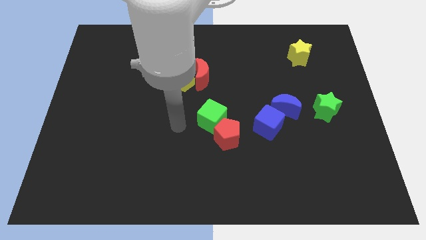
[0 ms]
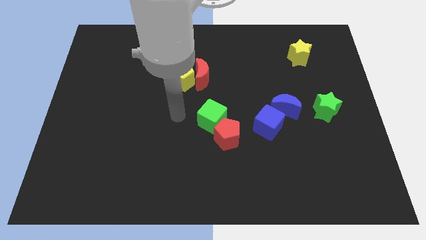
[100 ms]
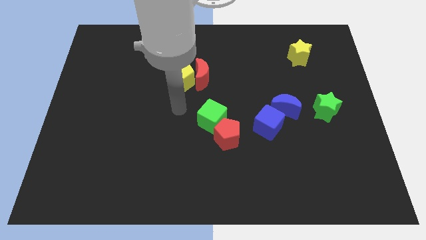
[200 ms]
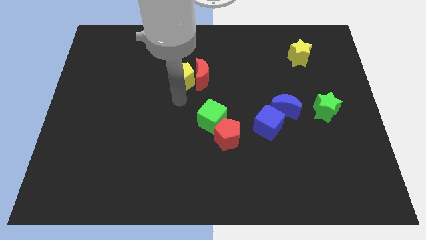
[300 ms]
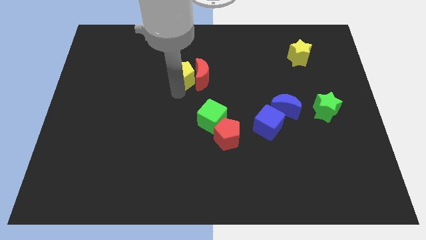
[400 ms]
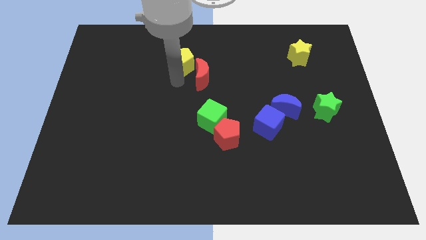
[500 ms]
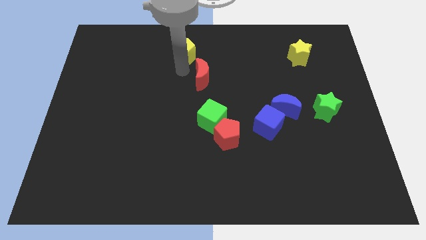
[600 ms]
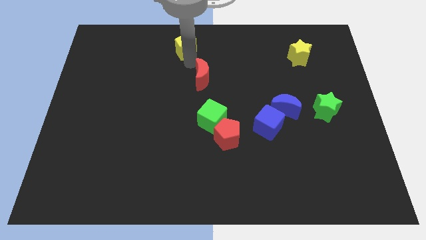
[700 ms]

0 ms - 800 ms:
separate the red moon from the yellow pentagon

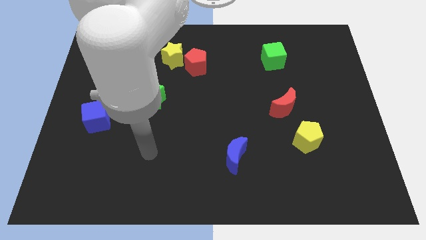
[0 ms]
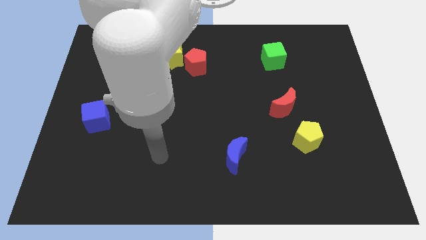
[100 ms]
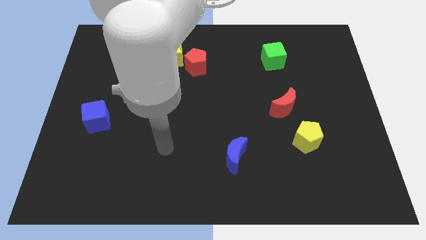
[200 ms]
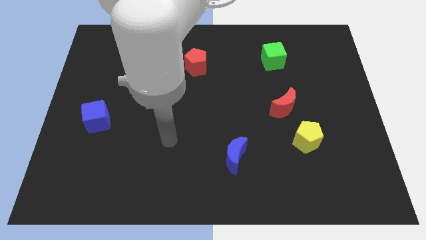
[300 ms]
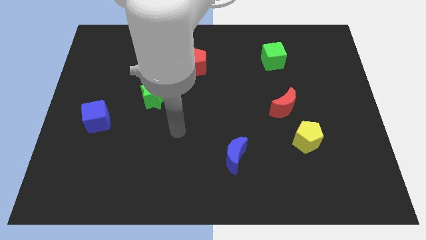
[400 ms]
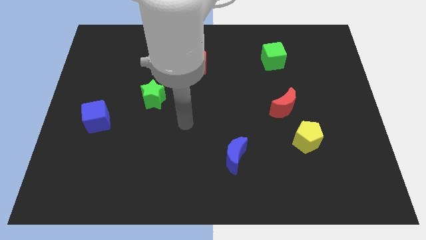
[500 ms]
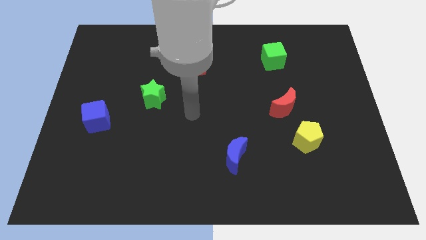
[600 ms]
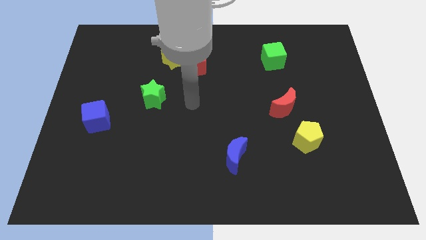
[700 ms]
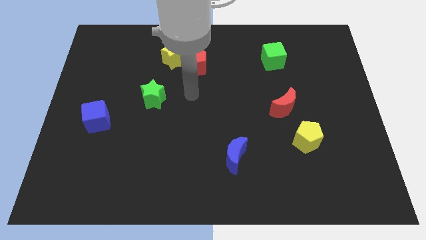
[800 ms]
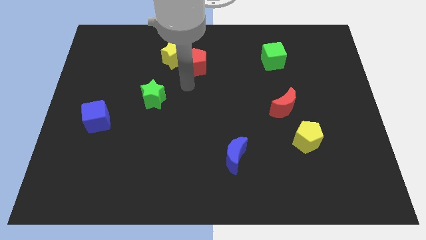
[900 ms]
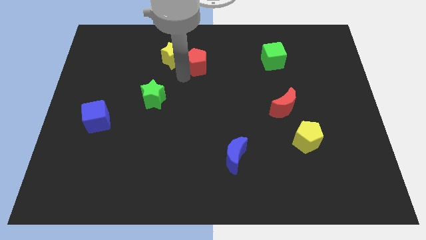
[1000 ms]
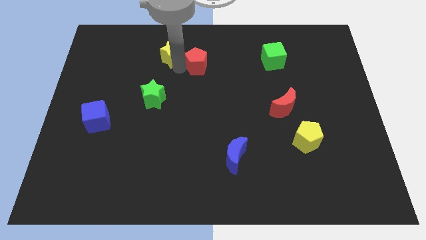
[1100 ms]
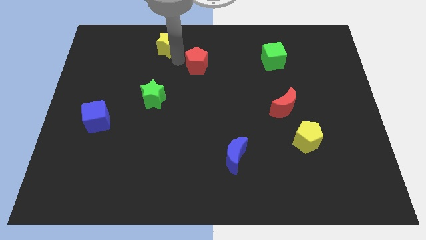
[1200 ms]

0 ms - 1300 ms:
separate the red pentagon from the yellow star

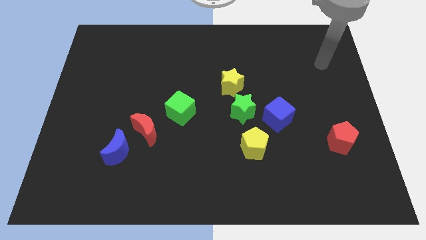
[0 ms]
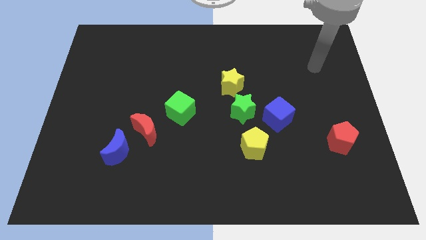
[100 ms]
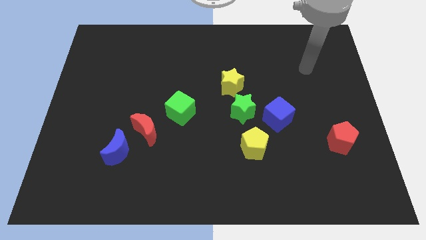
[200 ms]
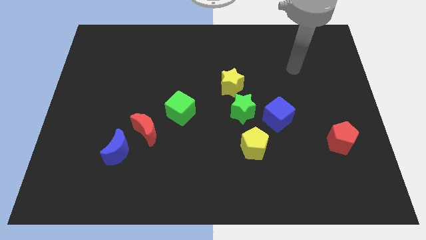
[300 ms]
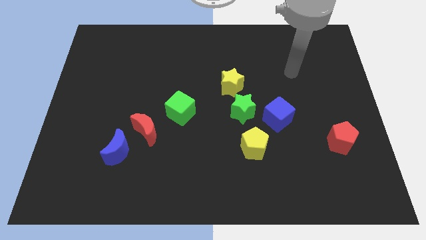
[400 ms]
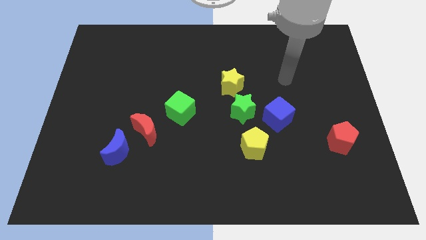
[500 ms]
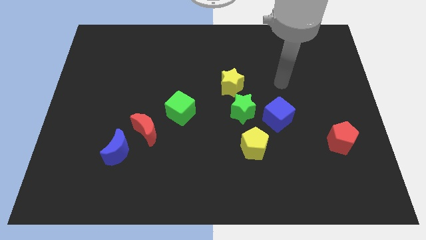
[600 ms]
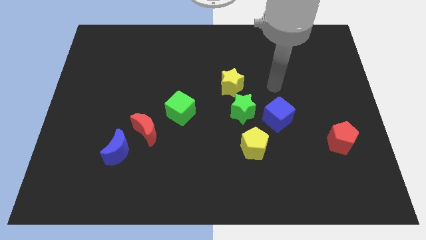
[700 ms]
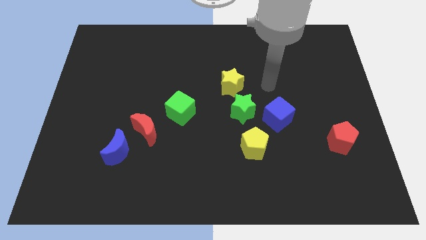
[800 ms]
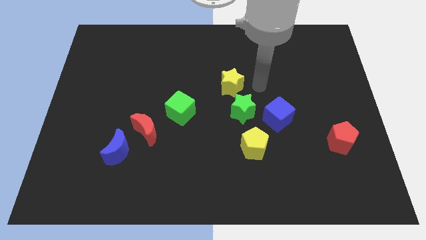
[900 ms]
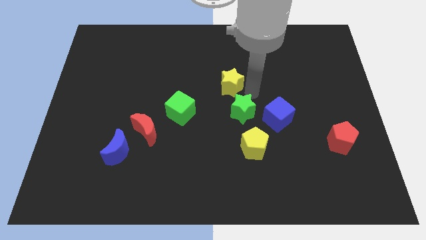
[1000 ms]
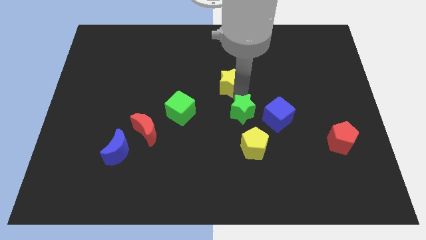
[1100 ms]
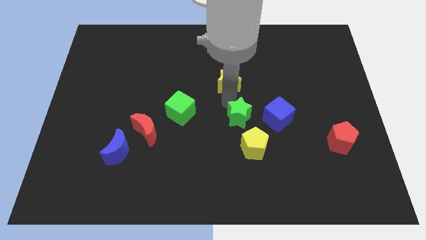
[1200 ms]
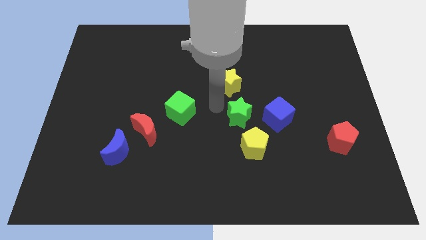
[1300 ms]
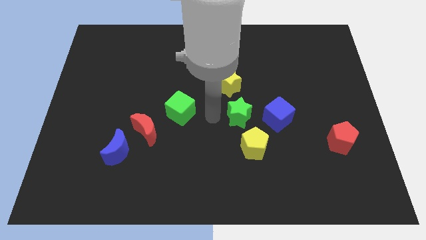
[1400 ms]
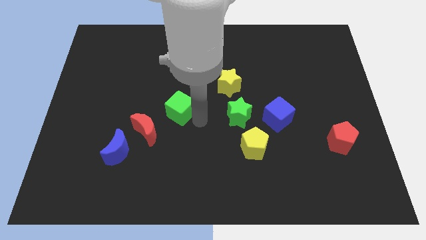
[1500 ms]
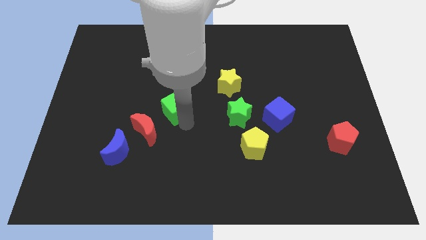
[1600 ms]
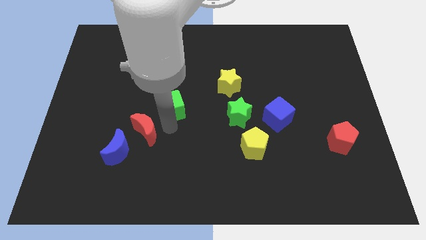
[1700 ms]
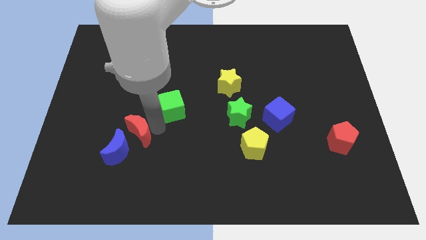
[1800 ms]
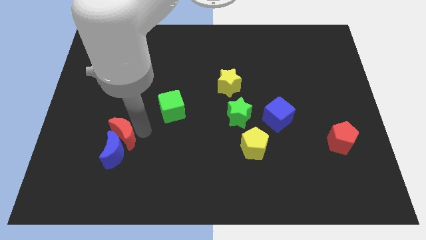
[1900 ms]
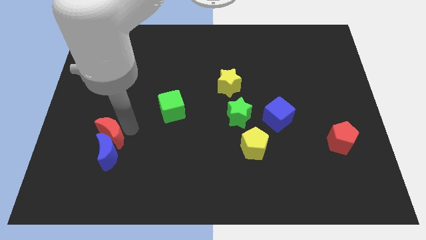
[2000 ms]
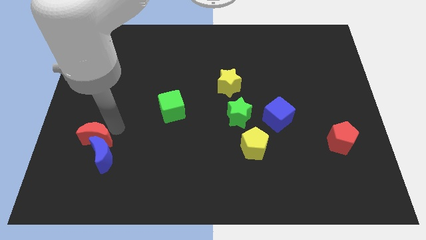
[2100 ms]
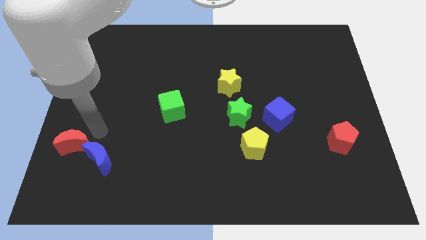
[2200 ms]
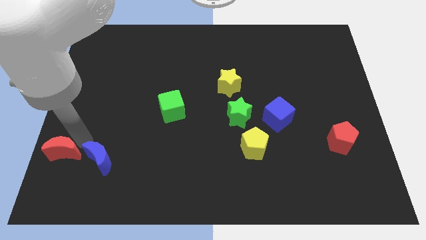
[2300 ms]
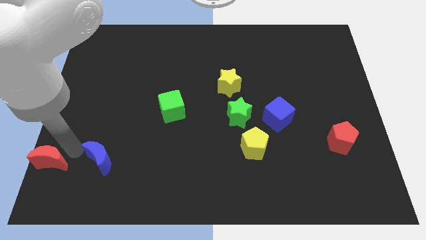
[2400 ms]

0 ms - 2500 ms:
move the blue moon away from the red moon

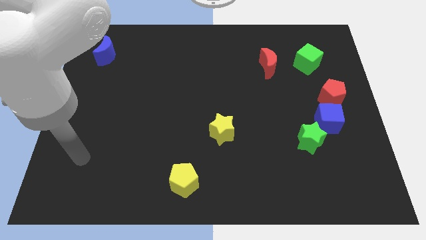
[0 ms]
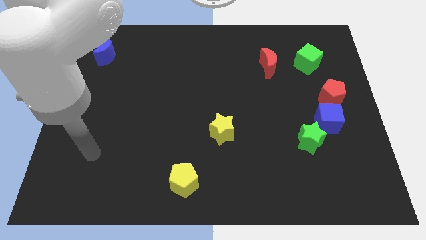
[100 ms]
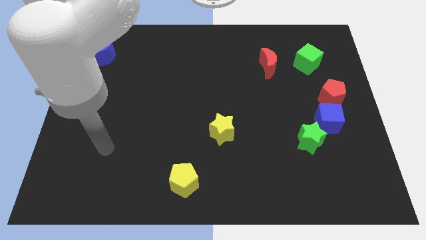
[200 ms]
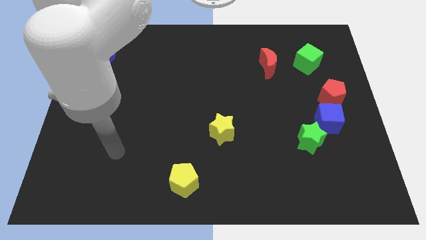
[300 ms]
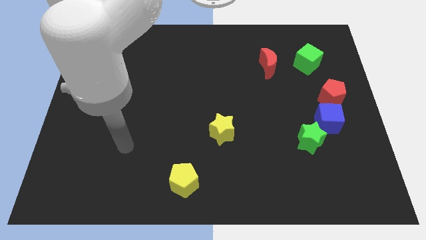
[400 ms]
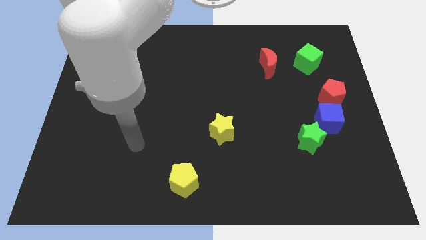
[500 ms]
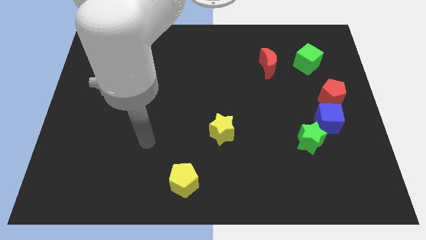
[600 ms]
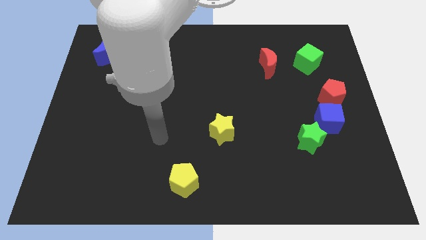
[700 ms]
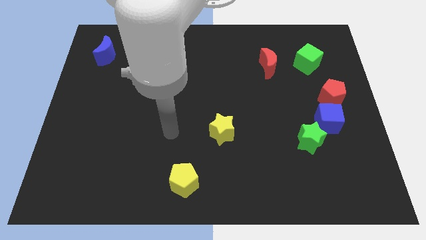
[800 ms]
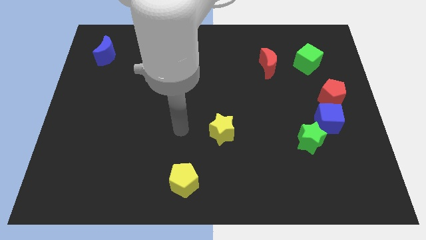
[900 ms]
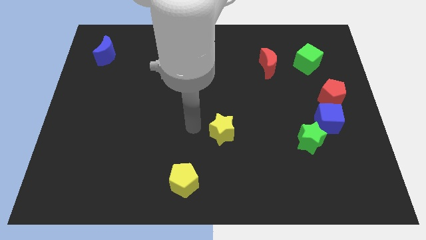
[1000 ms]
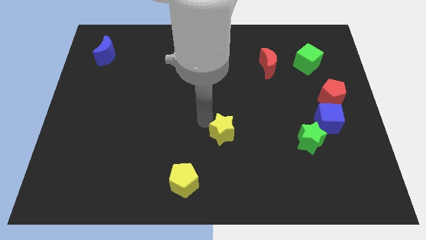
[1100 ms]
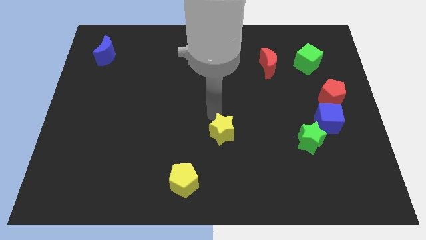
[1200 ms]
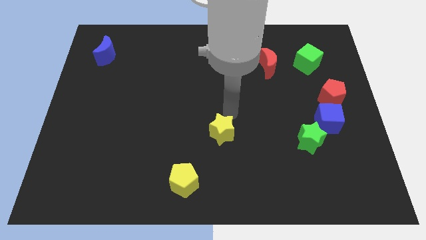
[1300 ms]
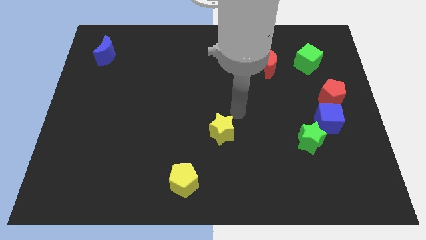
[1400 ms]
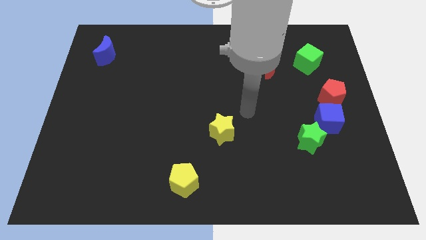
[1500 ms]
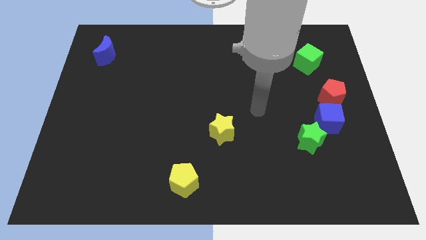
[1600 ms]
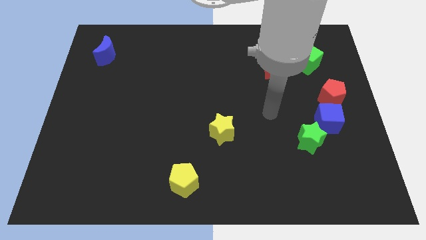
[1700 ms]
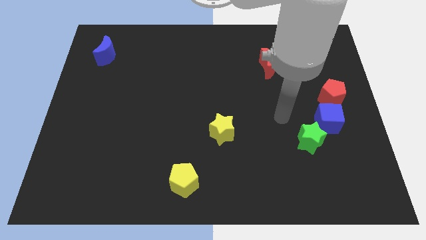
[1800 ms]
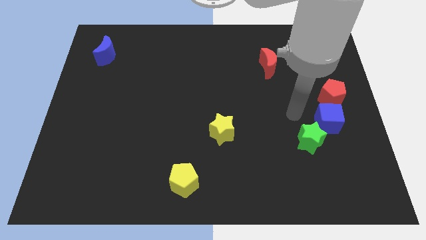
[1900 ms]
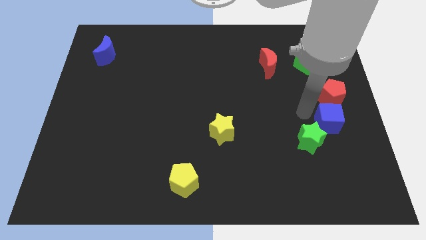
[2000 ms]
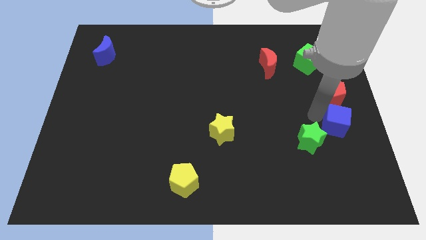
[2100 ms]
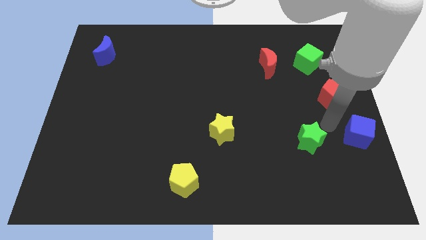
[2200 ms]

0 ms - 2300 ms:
separate the green star from the blue cube

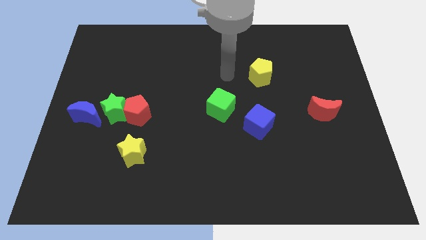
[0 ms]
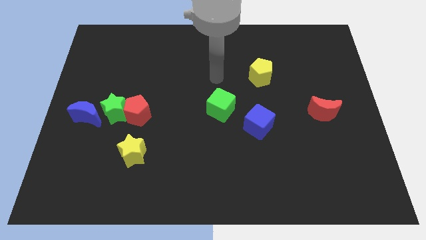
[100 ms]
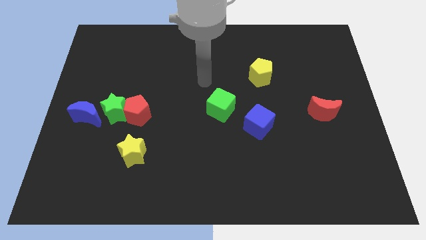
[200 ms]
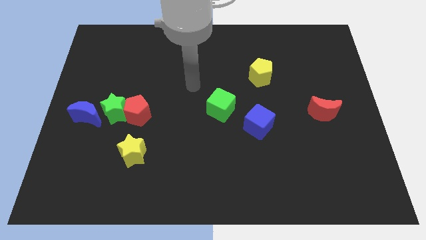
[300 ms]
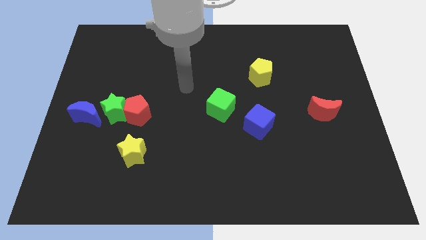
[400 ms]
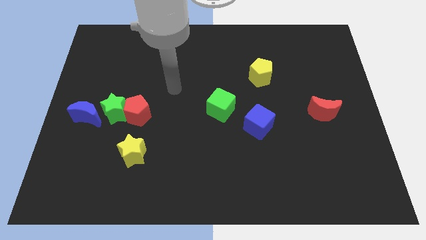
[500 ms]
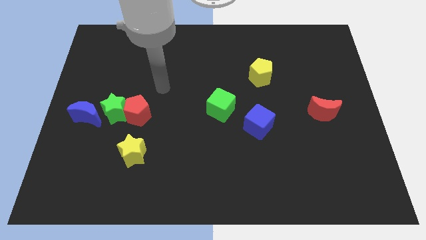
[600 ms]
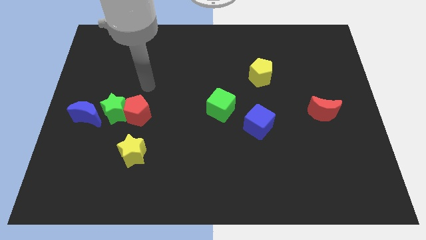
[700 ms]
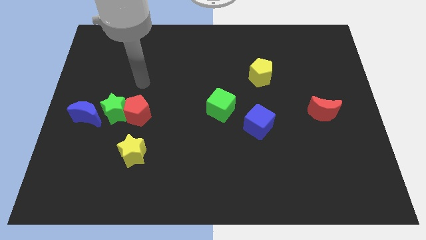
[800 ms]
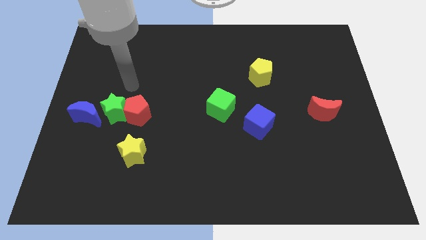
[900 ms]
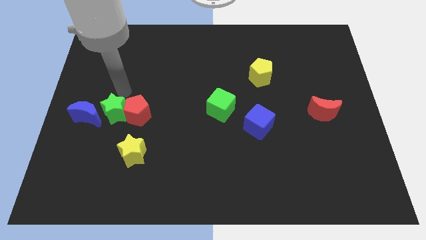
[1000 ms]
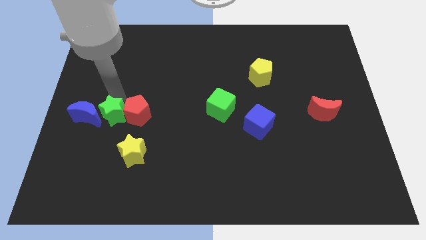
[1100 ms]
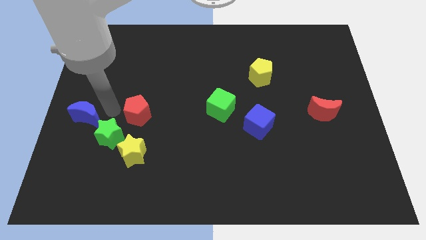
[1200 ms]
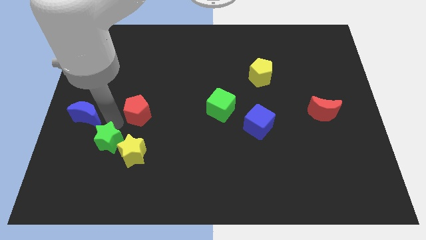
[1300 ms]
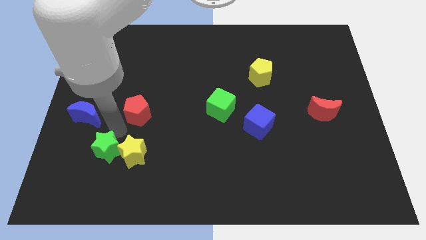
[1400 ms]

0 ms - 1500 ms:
move the red pentagon away from the green star

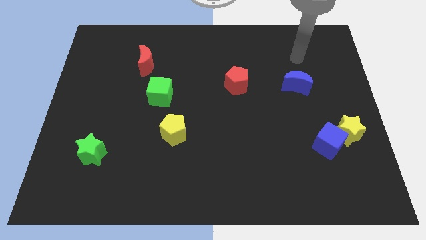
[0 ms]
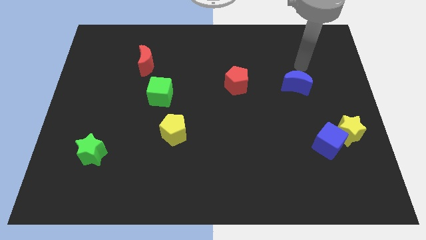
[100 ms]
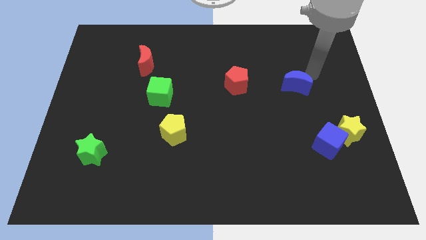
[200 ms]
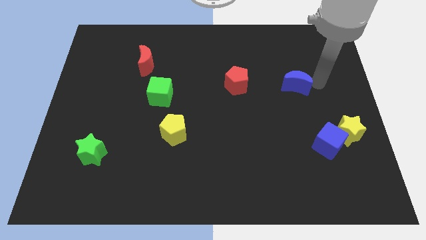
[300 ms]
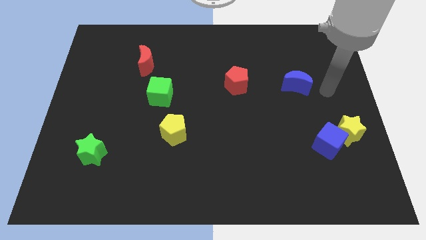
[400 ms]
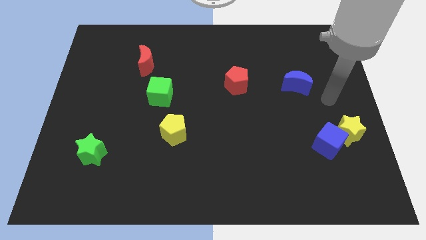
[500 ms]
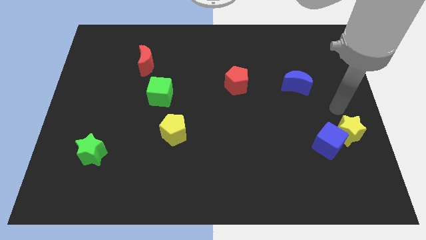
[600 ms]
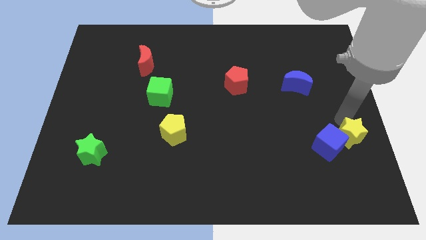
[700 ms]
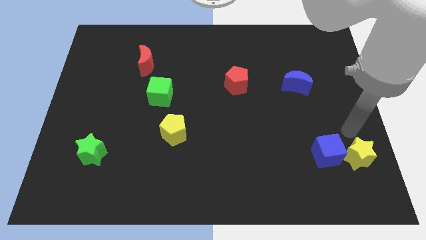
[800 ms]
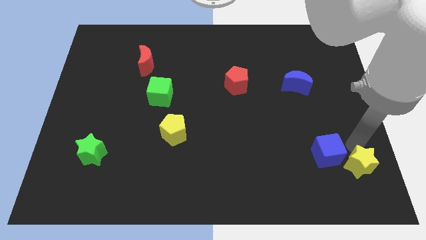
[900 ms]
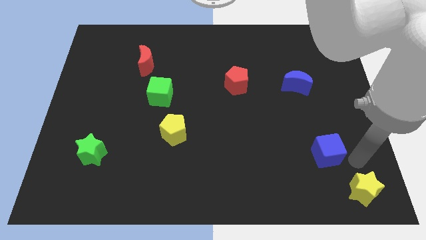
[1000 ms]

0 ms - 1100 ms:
separate the blue cube from the yellow star
